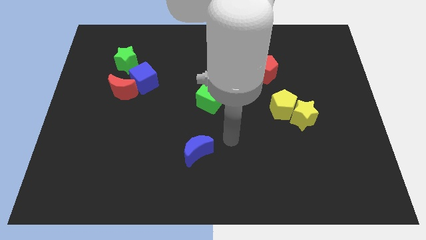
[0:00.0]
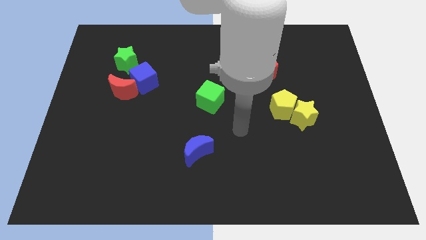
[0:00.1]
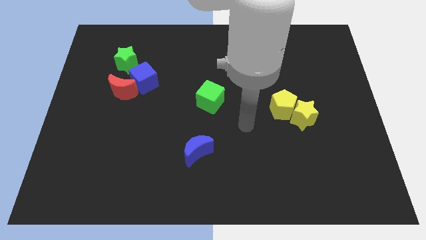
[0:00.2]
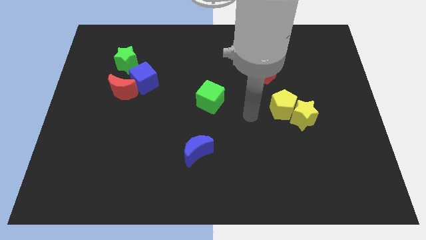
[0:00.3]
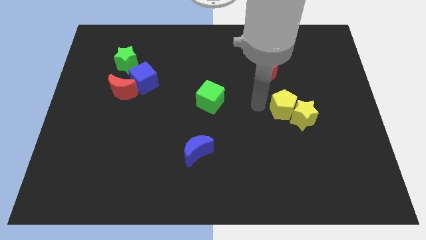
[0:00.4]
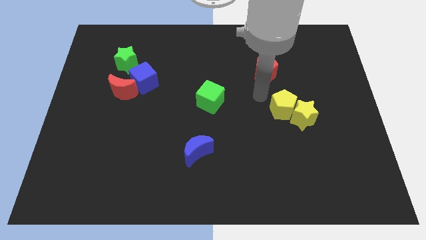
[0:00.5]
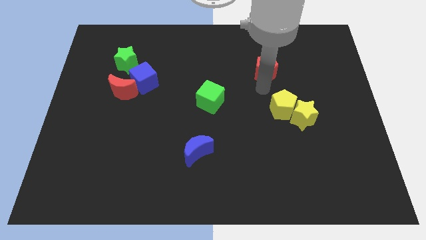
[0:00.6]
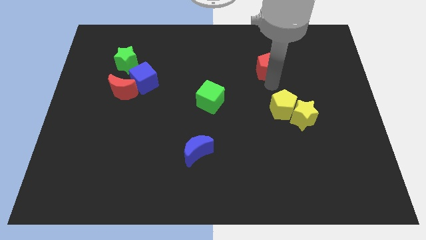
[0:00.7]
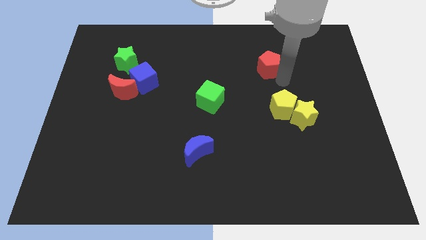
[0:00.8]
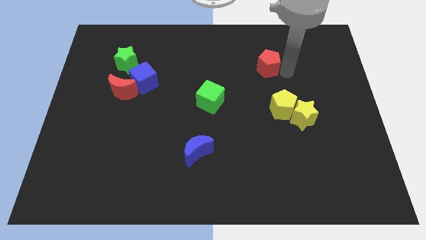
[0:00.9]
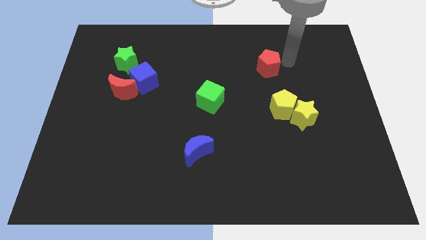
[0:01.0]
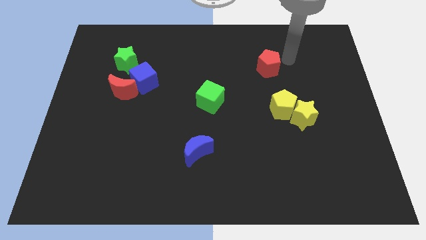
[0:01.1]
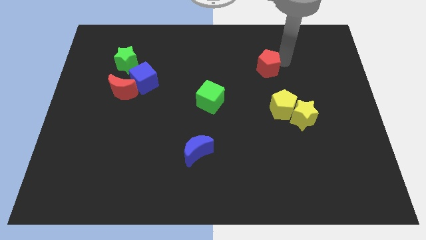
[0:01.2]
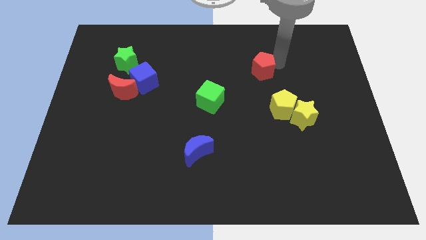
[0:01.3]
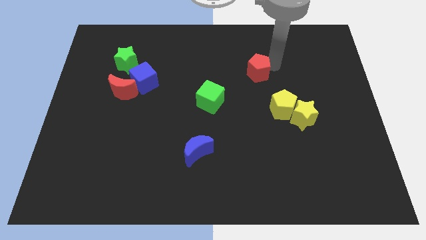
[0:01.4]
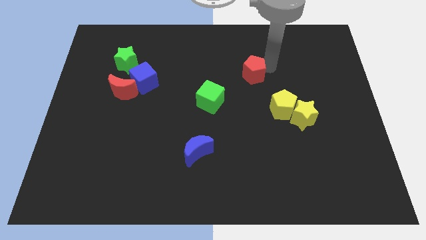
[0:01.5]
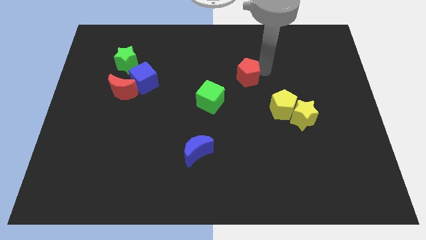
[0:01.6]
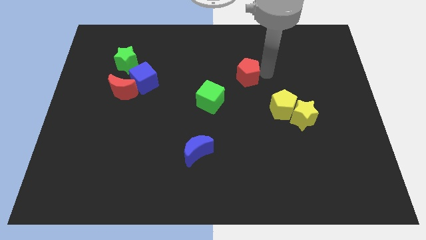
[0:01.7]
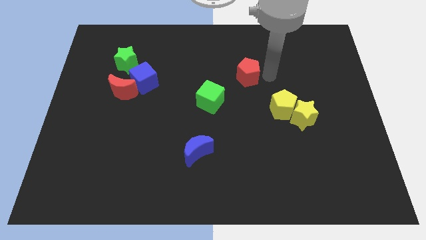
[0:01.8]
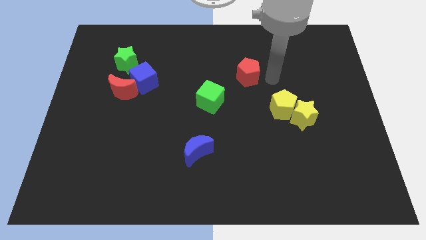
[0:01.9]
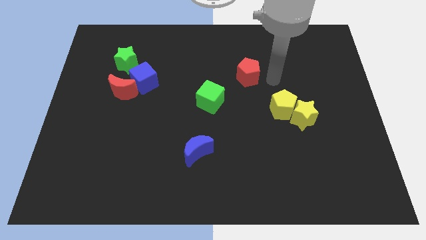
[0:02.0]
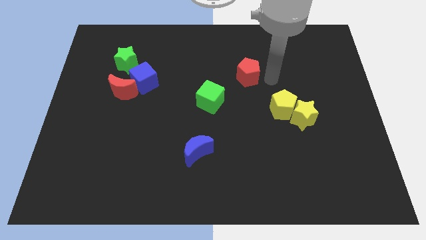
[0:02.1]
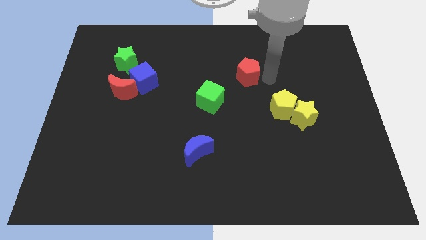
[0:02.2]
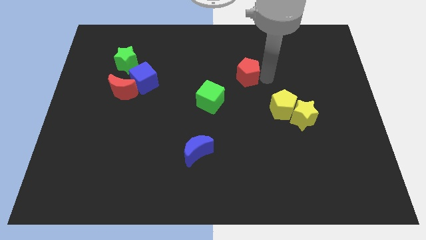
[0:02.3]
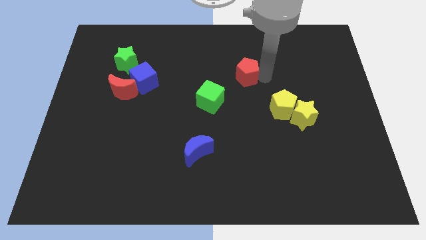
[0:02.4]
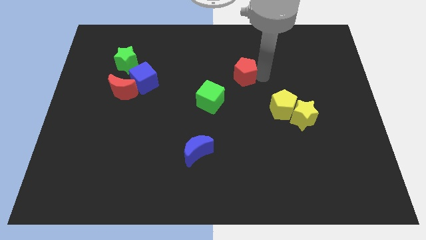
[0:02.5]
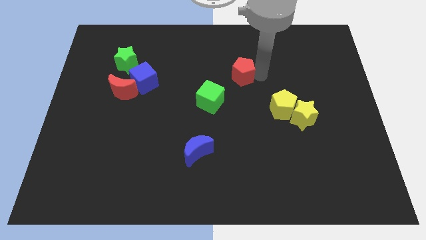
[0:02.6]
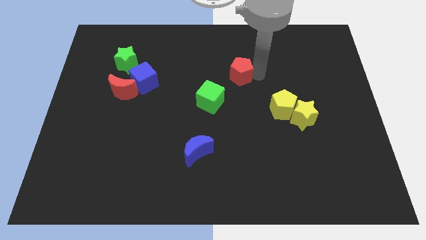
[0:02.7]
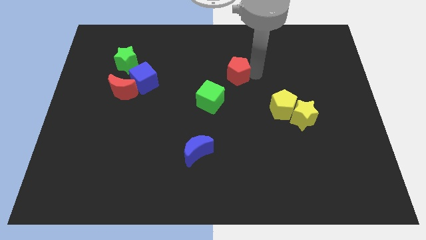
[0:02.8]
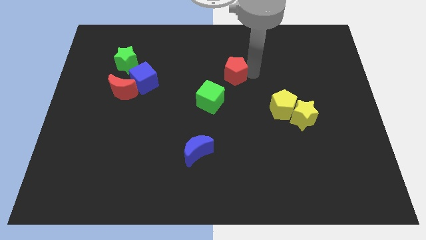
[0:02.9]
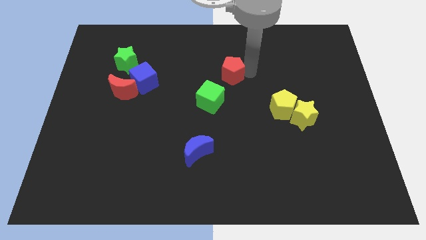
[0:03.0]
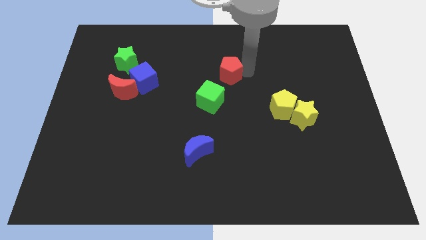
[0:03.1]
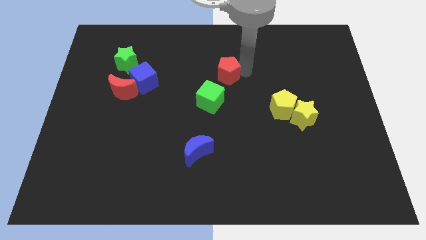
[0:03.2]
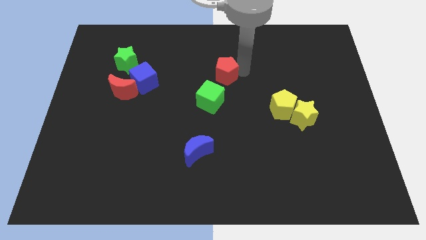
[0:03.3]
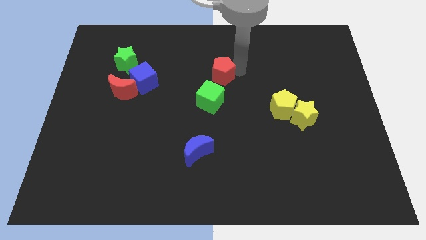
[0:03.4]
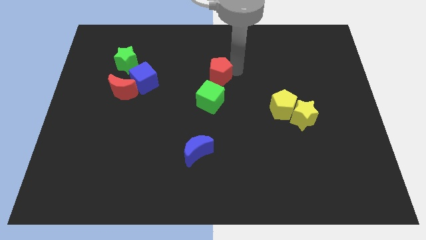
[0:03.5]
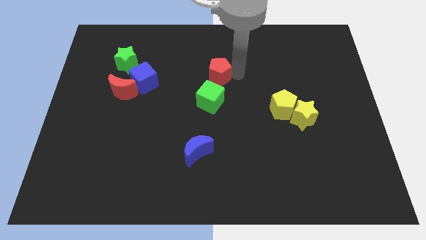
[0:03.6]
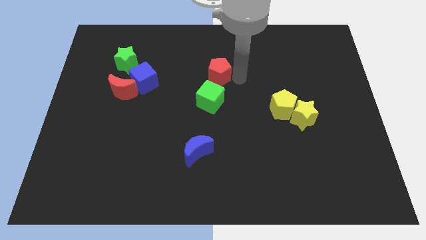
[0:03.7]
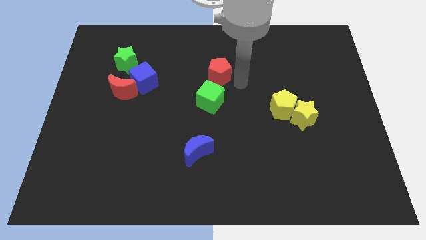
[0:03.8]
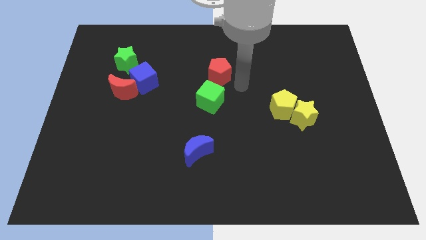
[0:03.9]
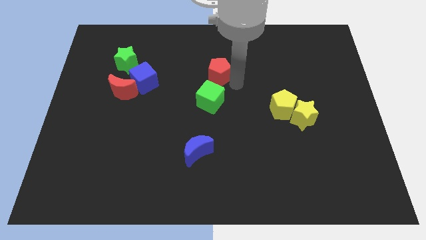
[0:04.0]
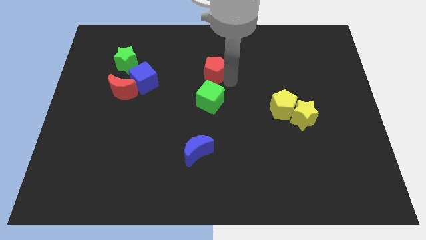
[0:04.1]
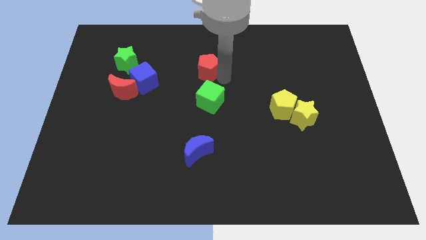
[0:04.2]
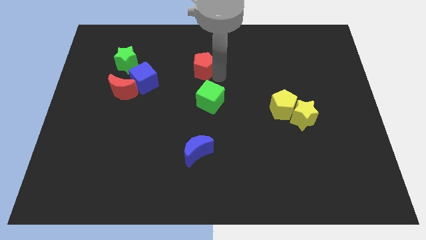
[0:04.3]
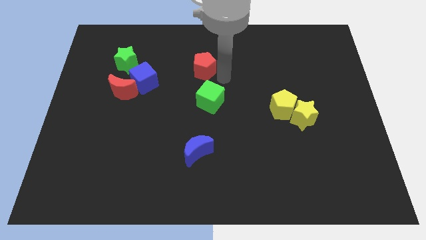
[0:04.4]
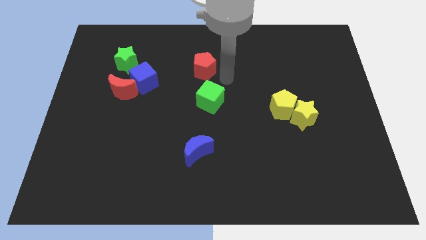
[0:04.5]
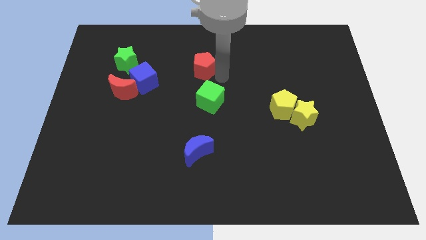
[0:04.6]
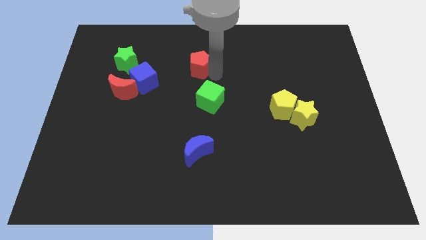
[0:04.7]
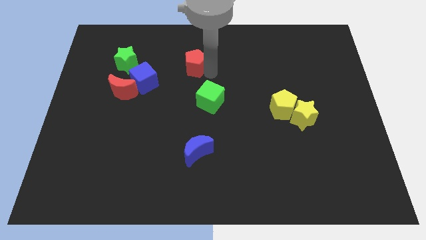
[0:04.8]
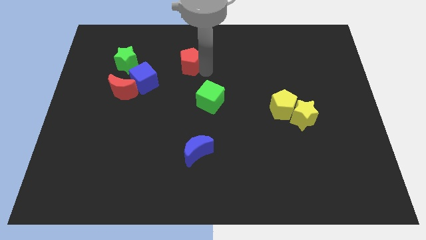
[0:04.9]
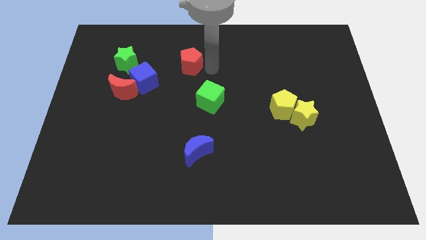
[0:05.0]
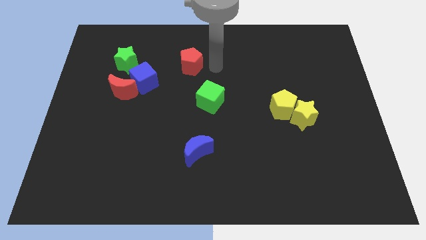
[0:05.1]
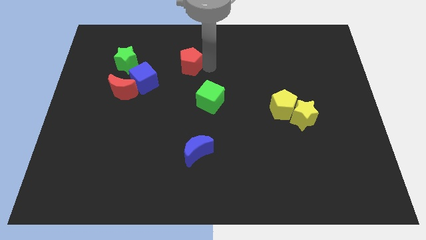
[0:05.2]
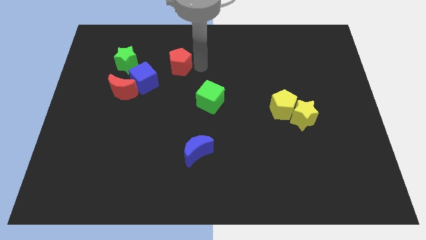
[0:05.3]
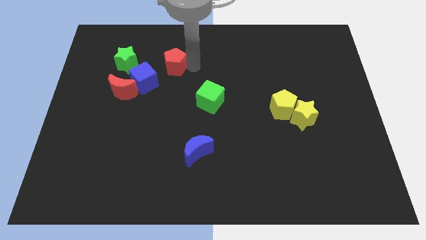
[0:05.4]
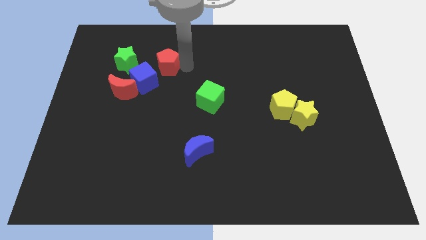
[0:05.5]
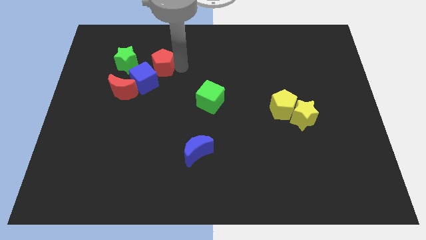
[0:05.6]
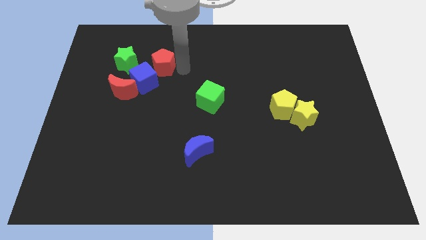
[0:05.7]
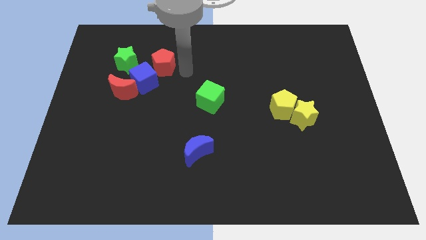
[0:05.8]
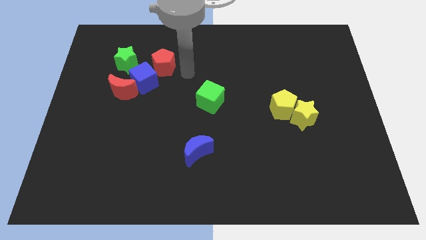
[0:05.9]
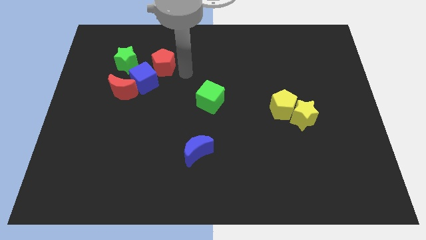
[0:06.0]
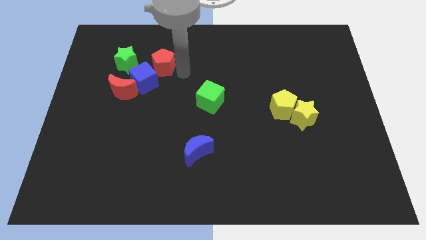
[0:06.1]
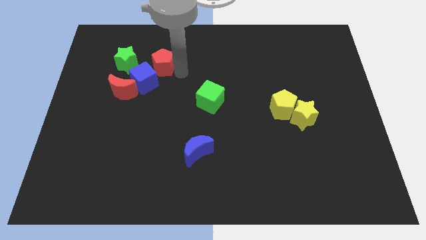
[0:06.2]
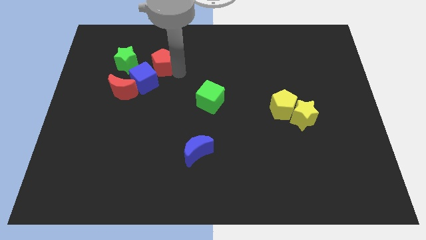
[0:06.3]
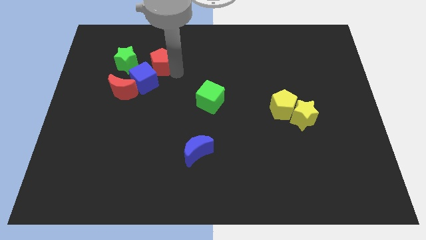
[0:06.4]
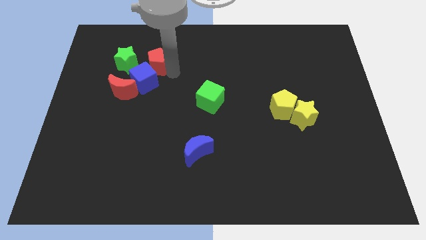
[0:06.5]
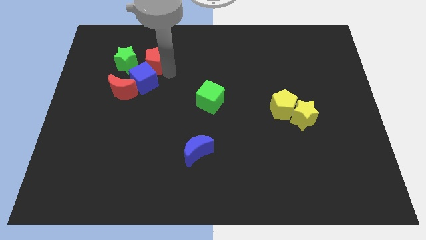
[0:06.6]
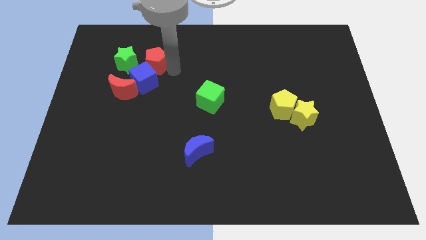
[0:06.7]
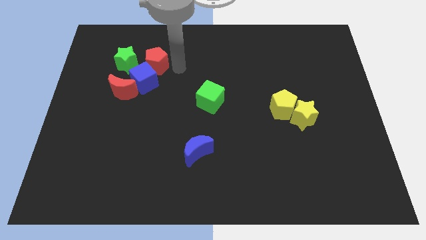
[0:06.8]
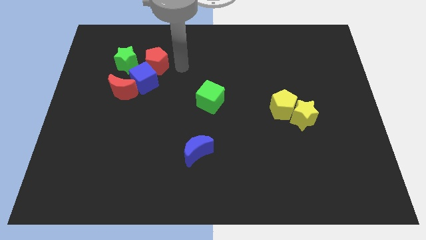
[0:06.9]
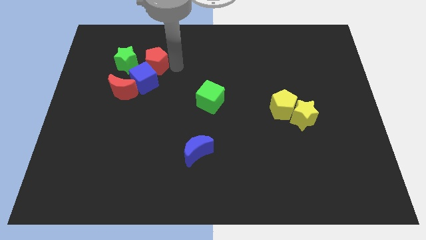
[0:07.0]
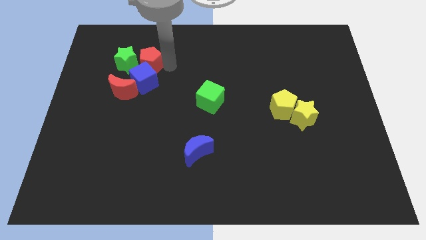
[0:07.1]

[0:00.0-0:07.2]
move the red pentagon to the green star

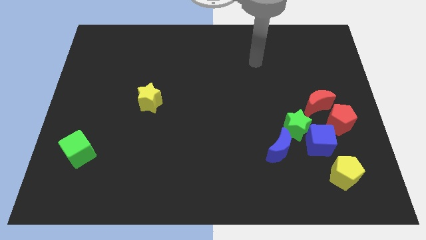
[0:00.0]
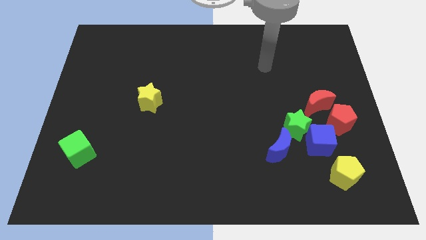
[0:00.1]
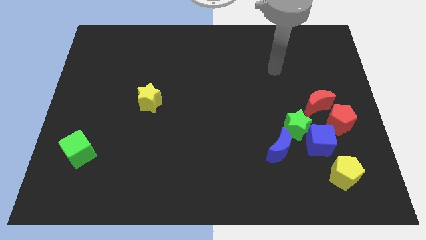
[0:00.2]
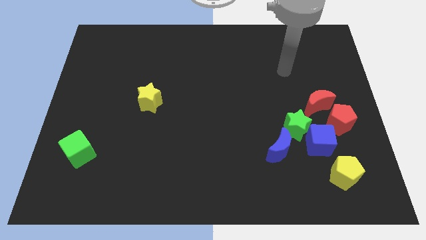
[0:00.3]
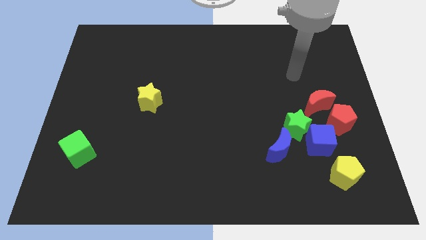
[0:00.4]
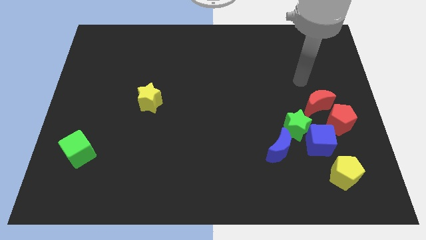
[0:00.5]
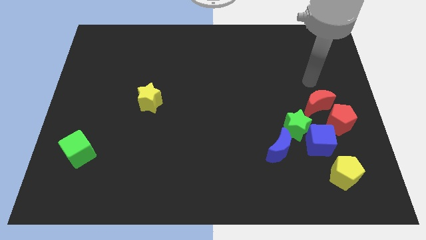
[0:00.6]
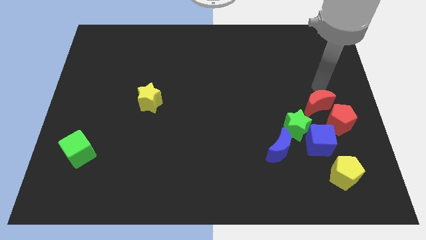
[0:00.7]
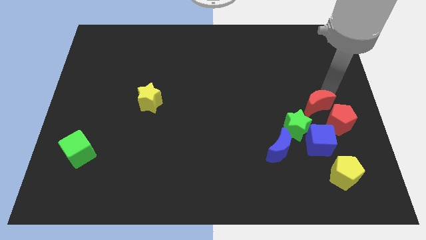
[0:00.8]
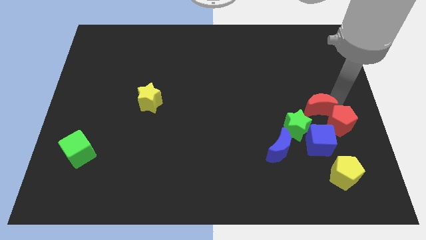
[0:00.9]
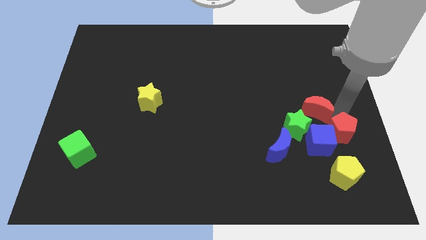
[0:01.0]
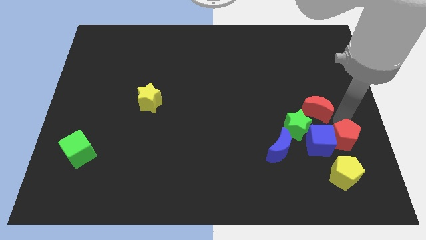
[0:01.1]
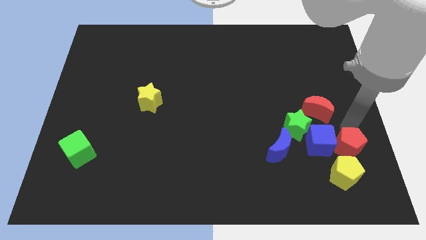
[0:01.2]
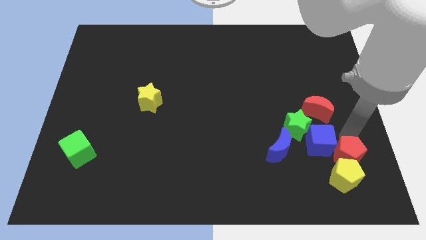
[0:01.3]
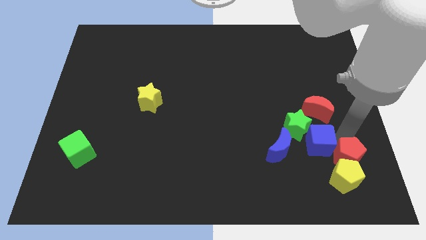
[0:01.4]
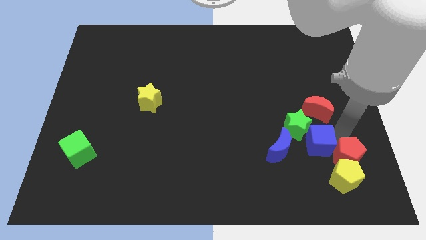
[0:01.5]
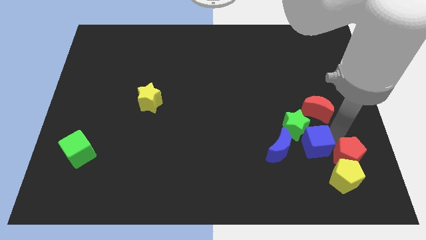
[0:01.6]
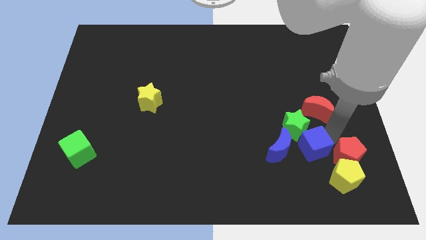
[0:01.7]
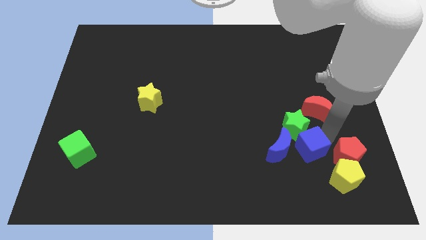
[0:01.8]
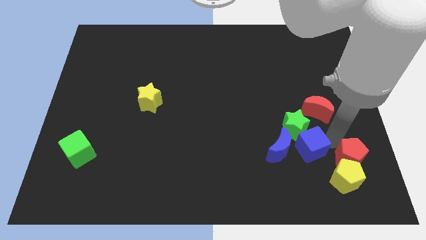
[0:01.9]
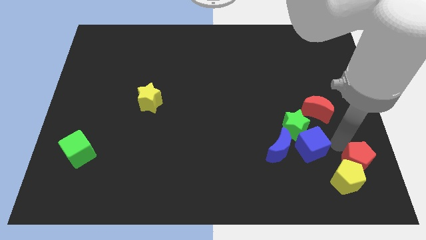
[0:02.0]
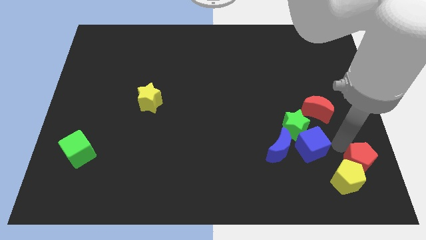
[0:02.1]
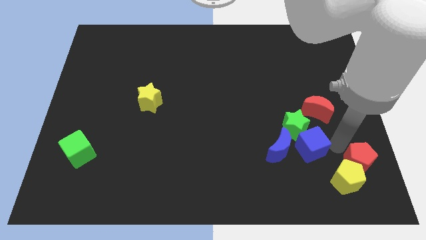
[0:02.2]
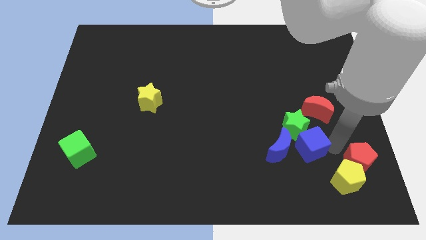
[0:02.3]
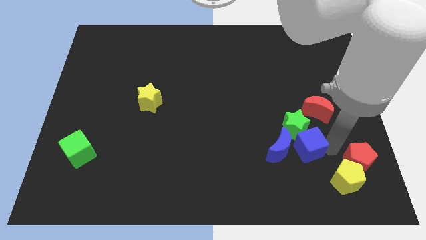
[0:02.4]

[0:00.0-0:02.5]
put the blue cube next to the blue moon
